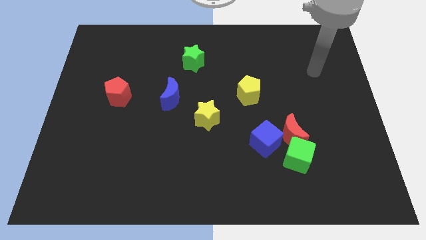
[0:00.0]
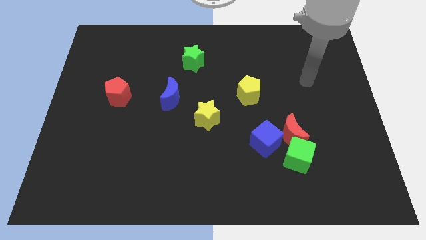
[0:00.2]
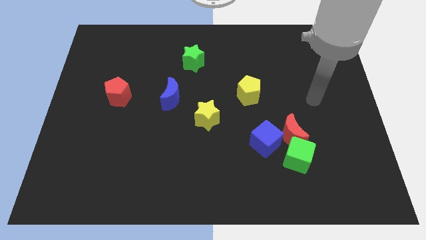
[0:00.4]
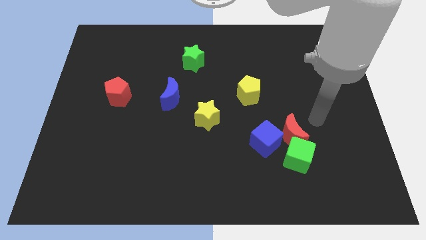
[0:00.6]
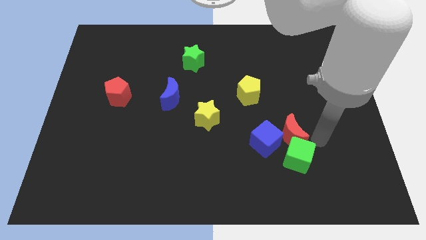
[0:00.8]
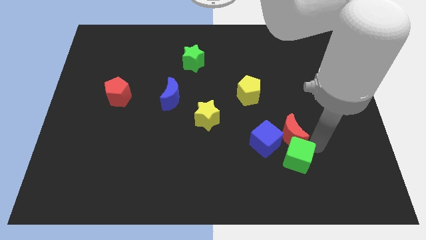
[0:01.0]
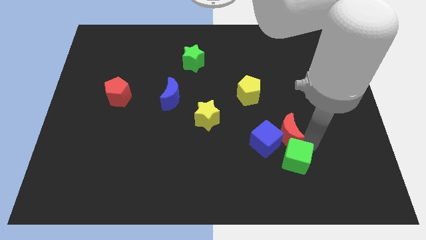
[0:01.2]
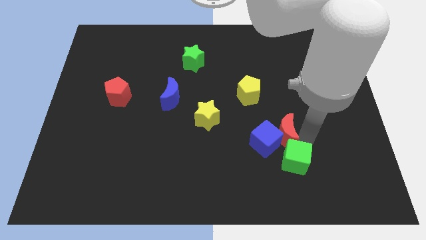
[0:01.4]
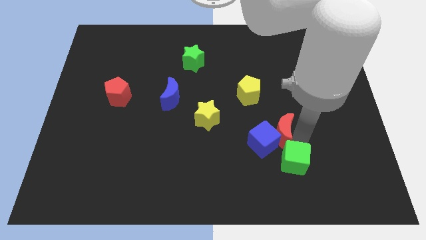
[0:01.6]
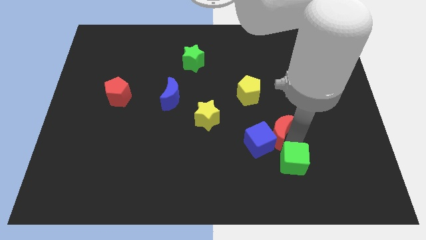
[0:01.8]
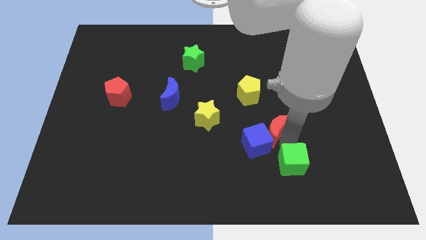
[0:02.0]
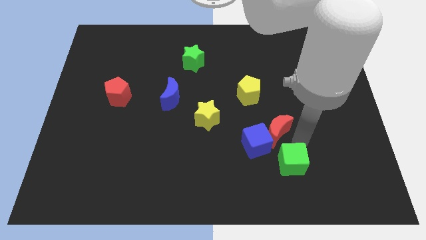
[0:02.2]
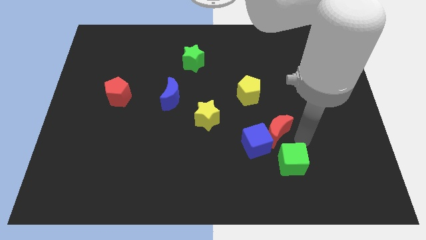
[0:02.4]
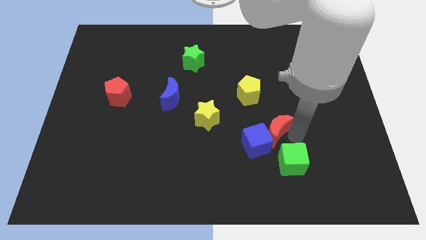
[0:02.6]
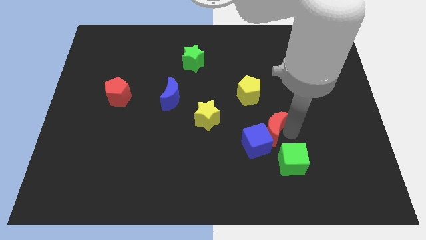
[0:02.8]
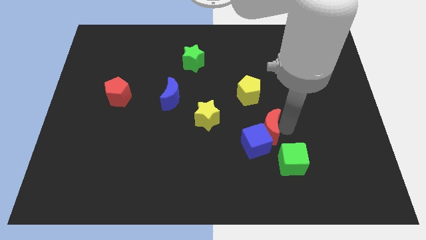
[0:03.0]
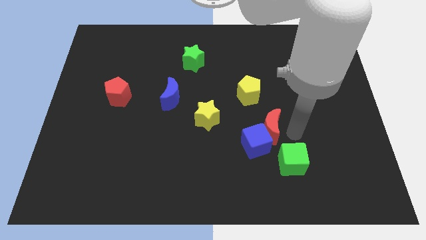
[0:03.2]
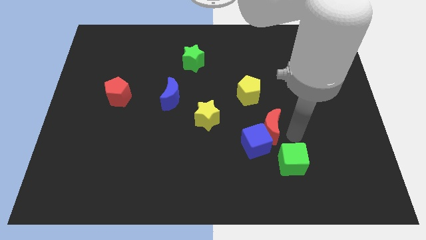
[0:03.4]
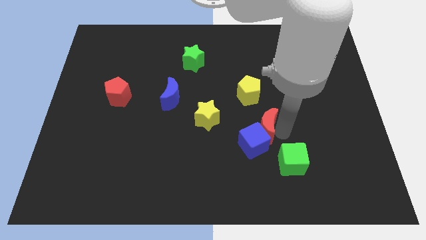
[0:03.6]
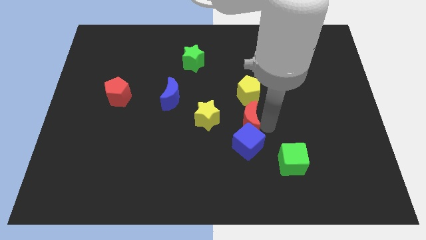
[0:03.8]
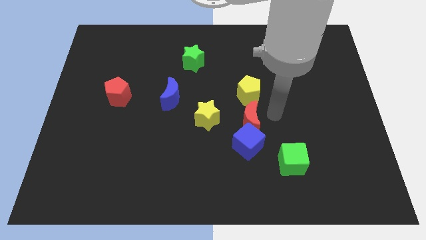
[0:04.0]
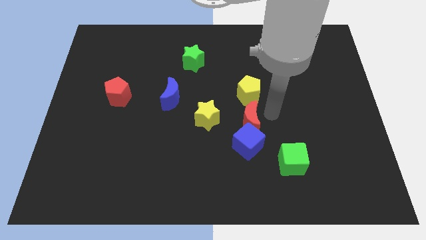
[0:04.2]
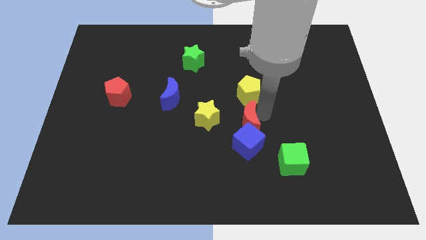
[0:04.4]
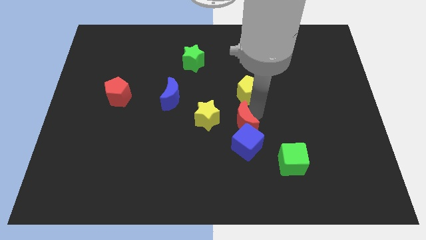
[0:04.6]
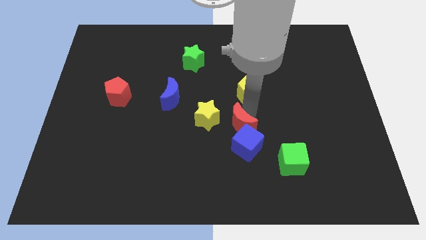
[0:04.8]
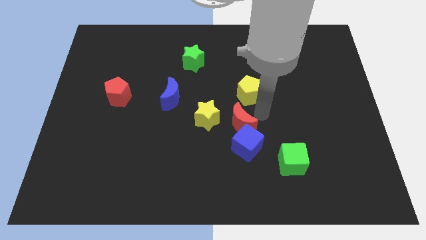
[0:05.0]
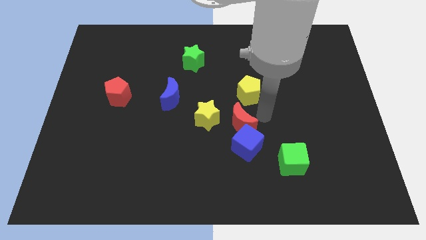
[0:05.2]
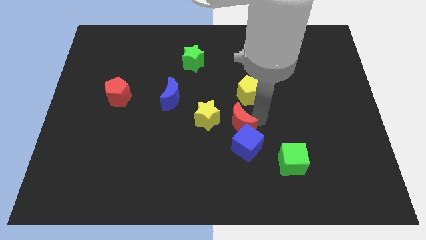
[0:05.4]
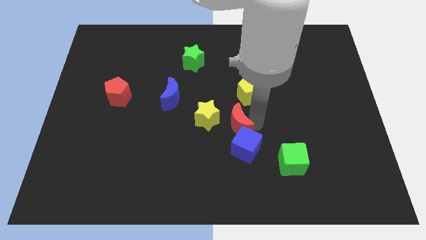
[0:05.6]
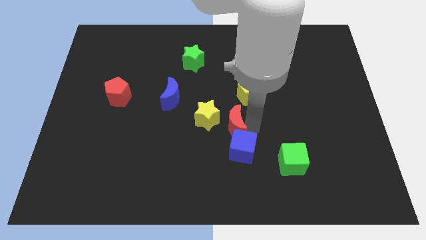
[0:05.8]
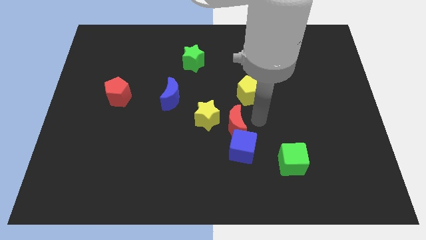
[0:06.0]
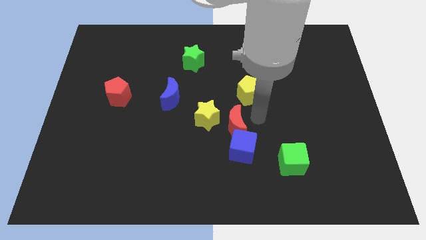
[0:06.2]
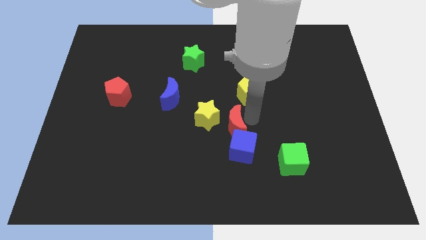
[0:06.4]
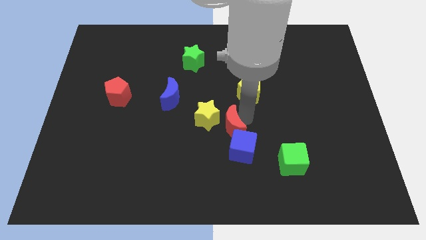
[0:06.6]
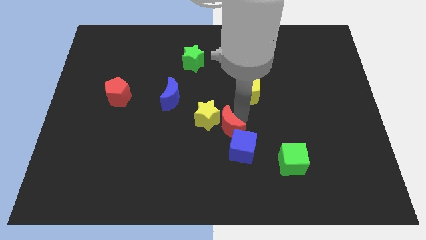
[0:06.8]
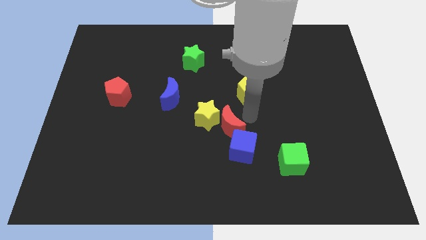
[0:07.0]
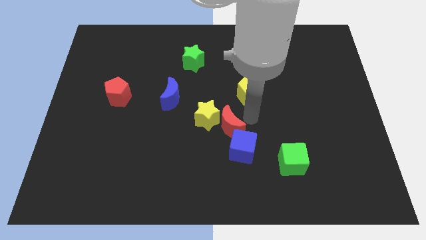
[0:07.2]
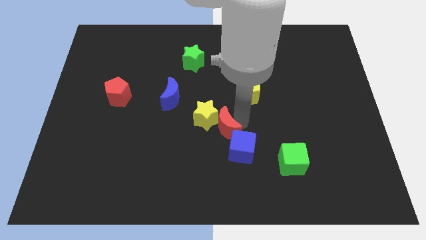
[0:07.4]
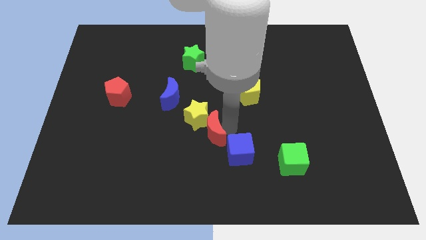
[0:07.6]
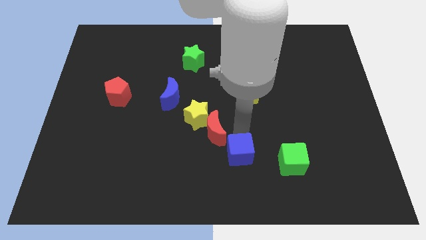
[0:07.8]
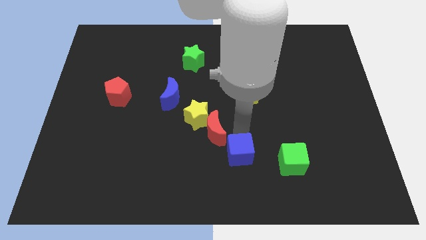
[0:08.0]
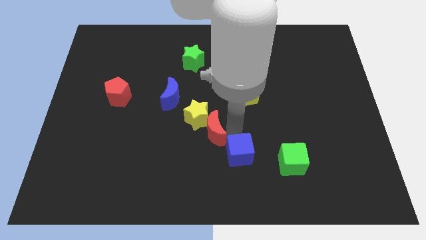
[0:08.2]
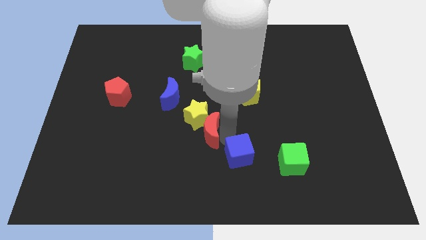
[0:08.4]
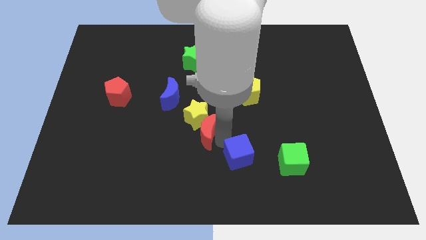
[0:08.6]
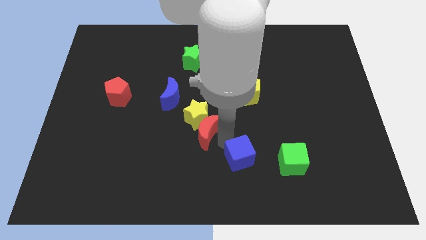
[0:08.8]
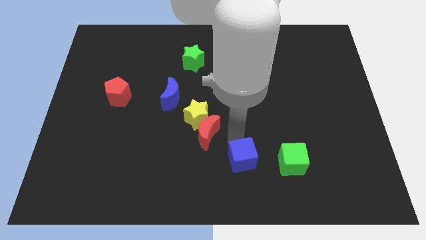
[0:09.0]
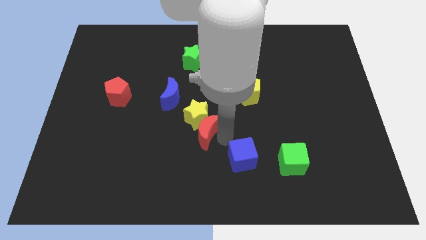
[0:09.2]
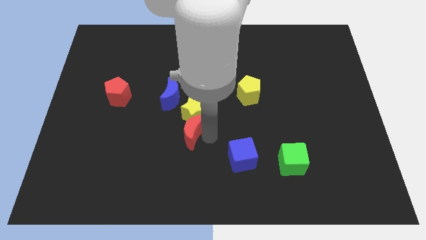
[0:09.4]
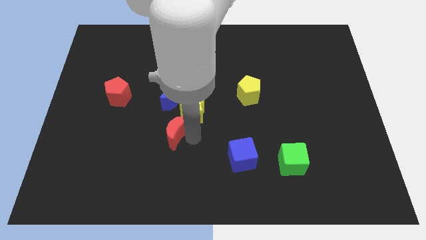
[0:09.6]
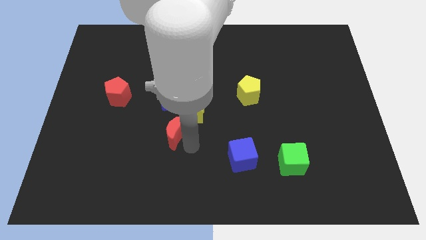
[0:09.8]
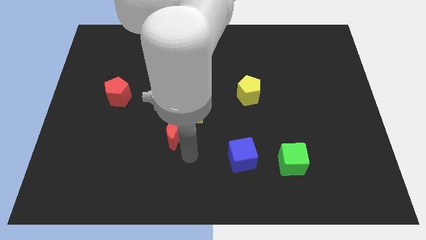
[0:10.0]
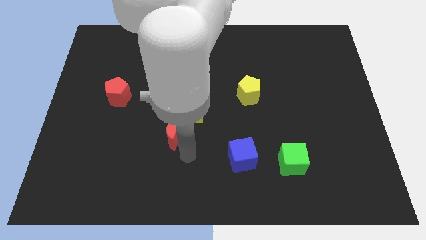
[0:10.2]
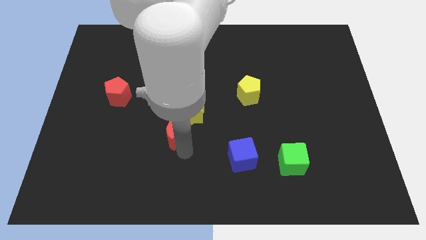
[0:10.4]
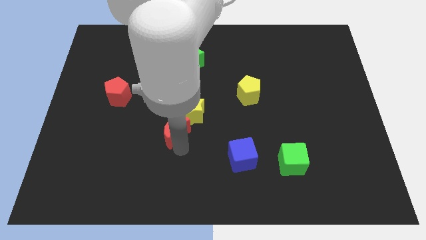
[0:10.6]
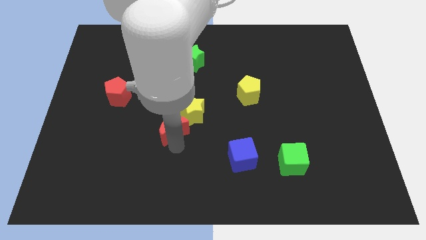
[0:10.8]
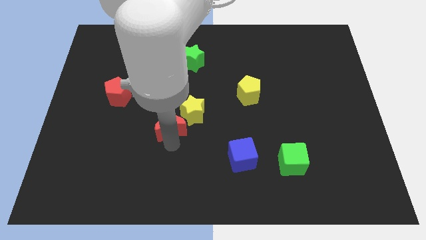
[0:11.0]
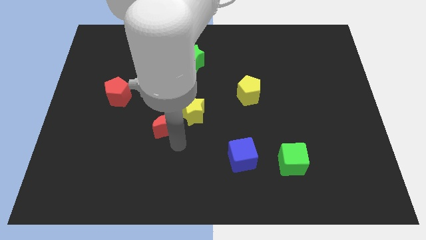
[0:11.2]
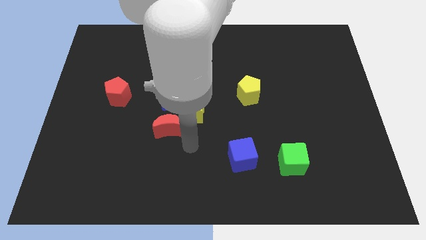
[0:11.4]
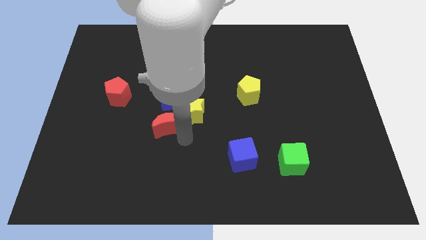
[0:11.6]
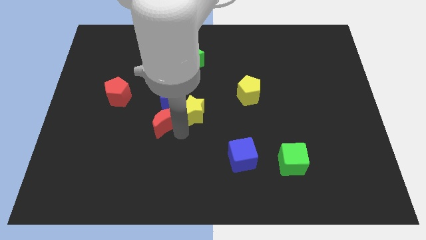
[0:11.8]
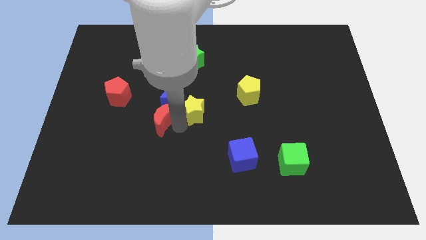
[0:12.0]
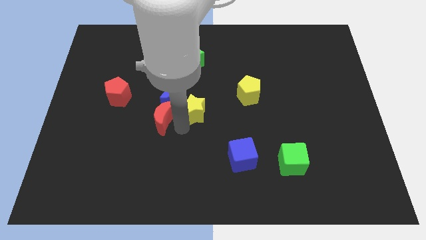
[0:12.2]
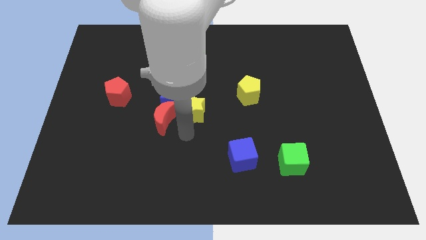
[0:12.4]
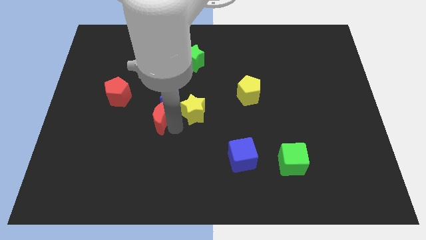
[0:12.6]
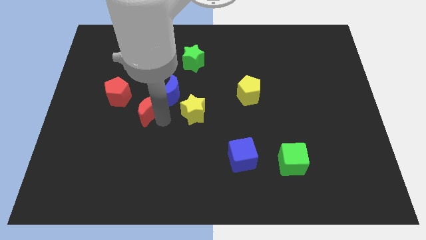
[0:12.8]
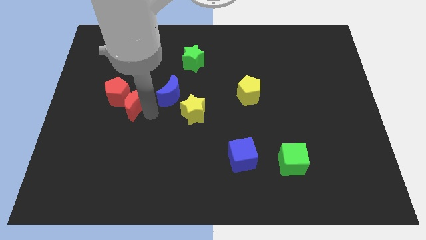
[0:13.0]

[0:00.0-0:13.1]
put the red moon towards the red pentagon

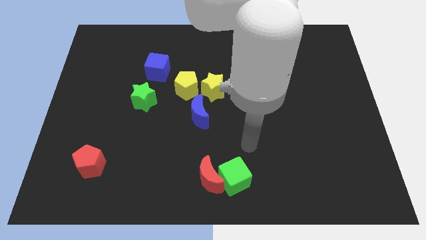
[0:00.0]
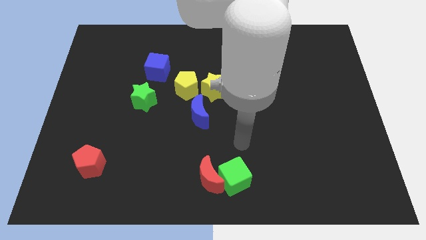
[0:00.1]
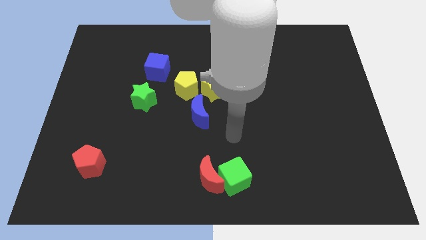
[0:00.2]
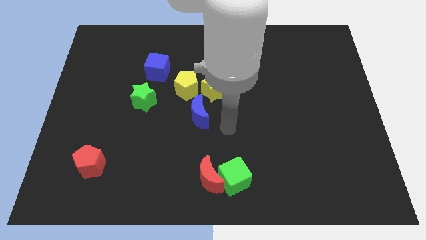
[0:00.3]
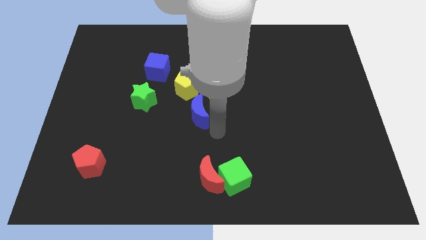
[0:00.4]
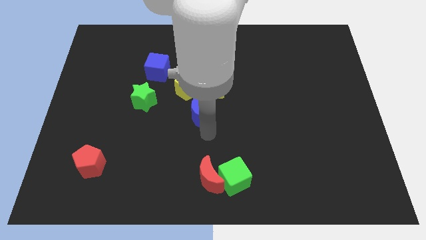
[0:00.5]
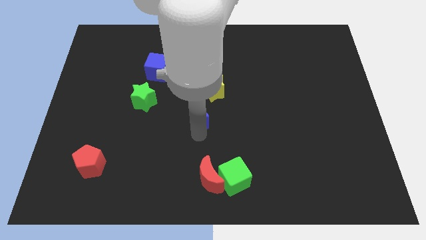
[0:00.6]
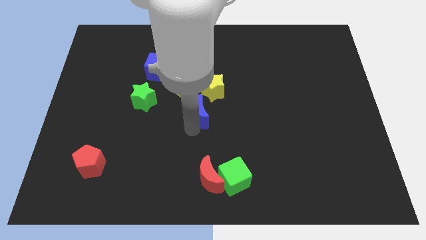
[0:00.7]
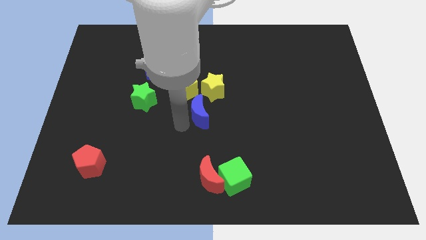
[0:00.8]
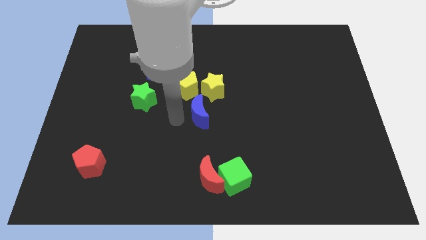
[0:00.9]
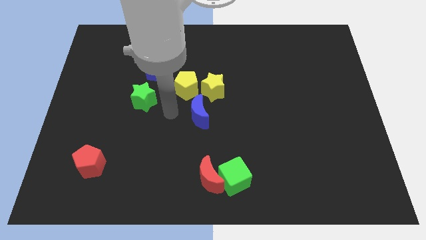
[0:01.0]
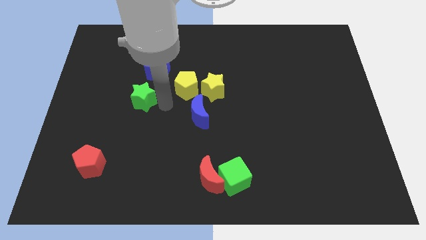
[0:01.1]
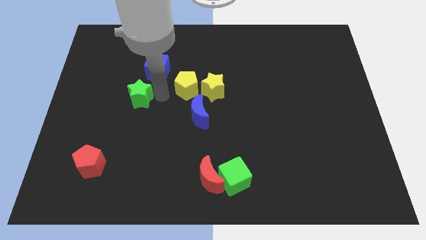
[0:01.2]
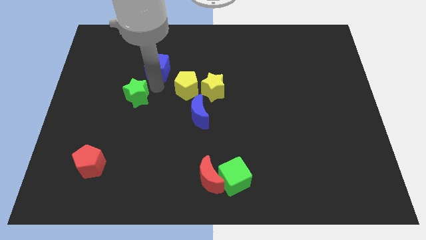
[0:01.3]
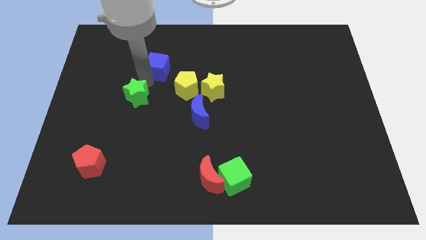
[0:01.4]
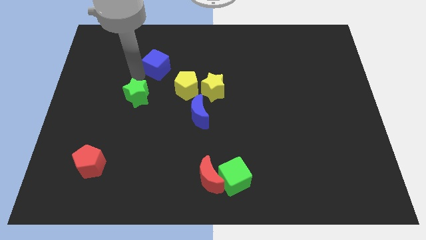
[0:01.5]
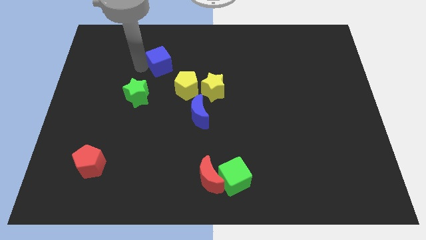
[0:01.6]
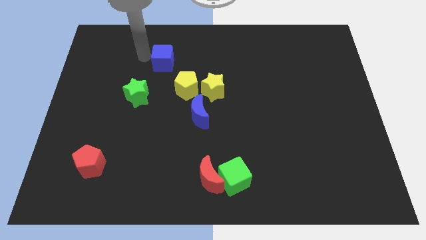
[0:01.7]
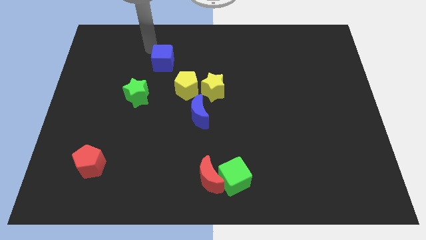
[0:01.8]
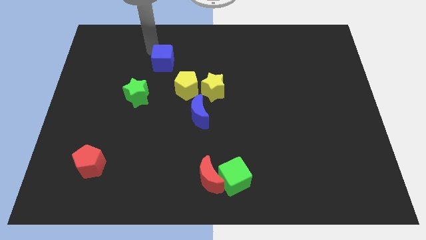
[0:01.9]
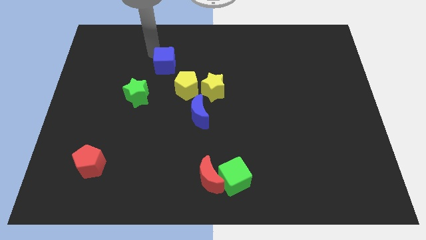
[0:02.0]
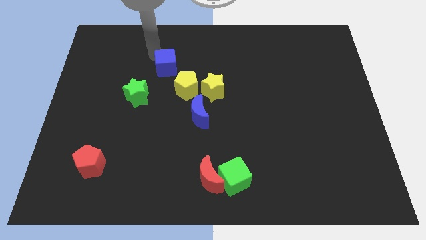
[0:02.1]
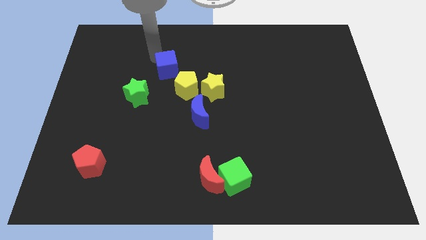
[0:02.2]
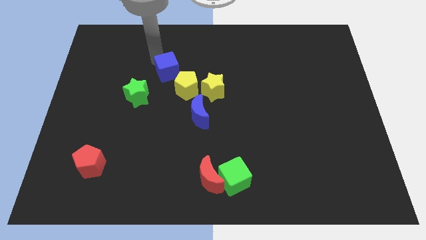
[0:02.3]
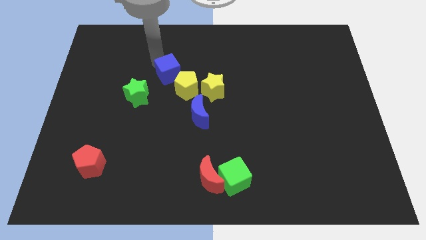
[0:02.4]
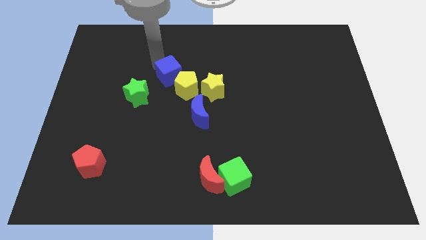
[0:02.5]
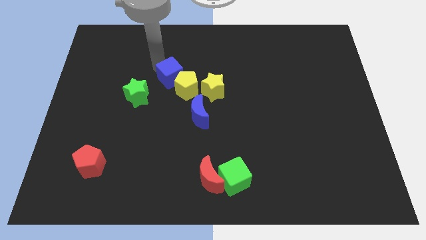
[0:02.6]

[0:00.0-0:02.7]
put the blue cube towards the yellow pentagon
